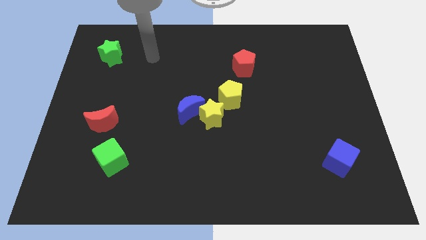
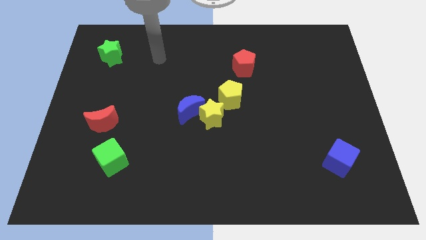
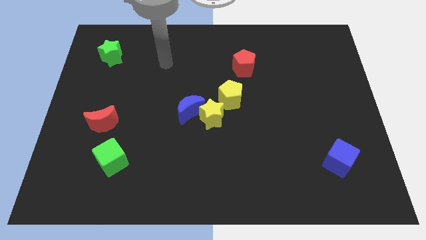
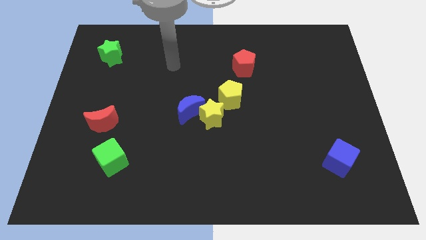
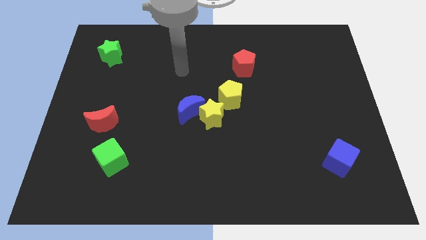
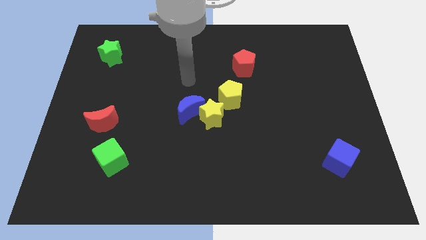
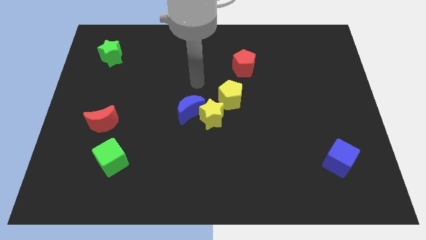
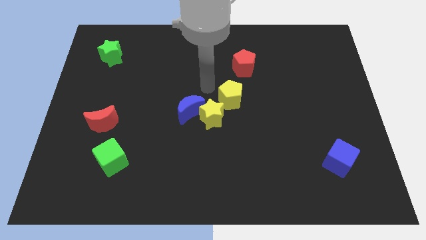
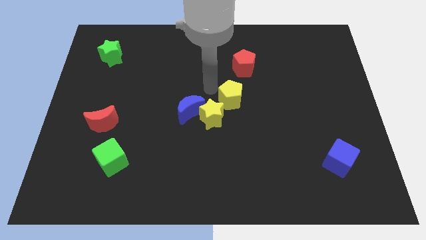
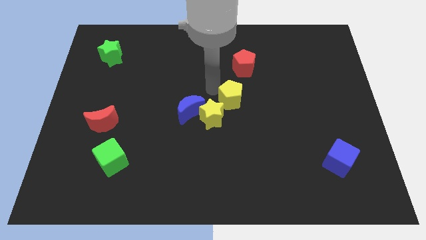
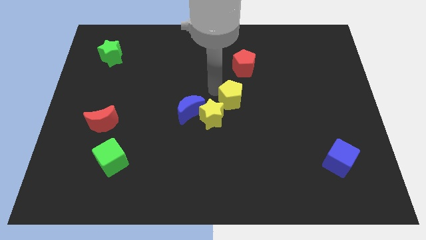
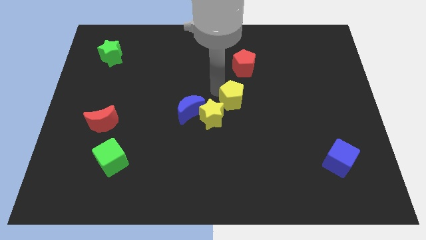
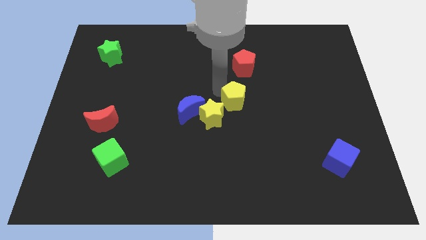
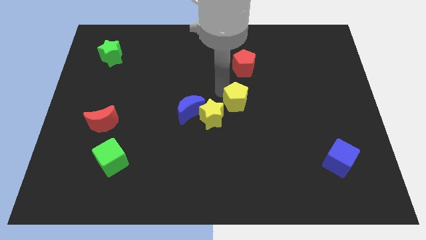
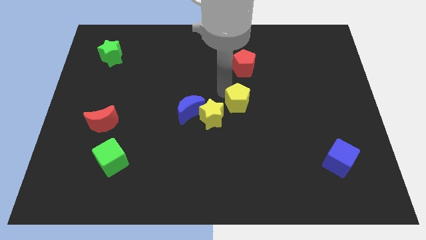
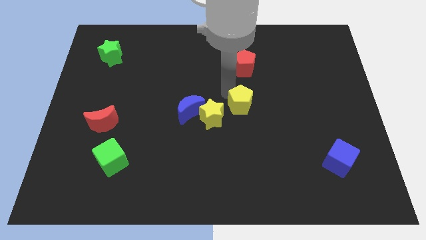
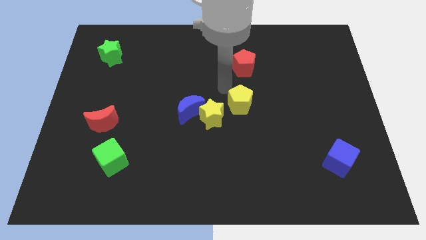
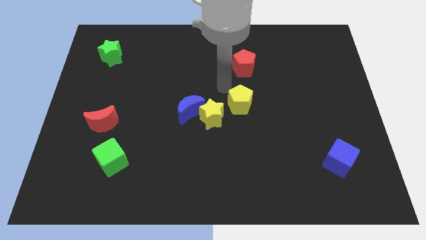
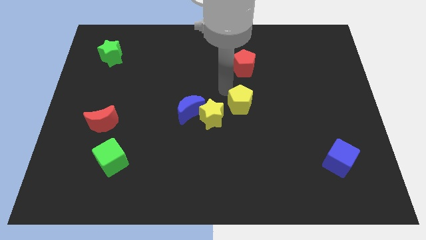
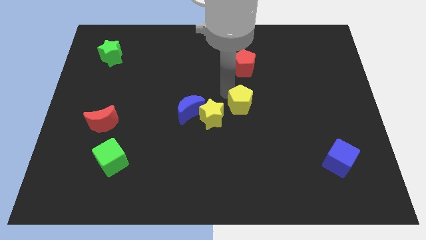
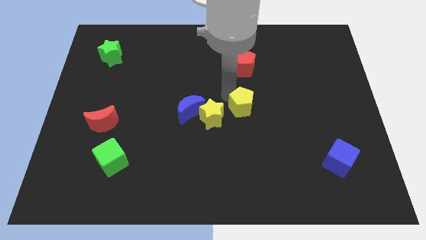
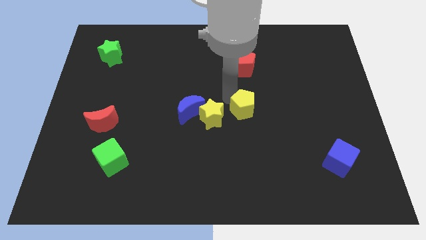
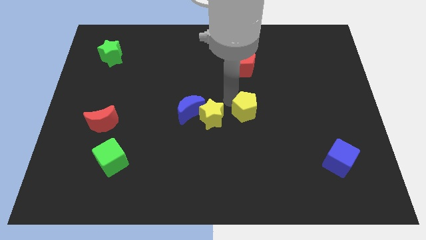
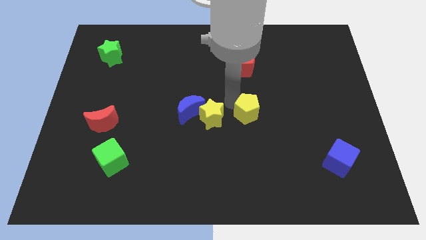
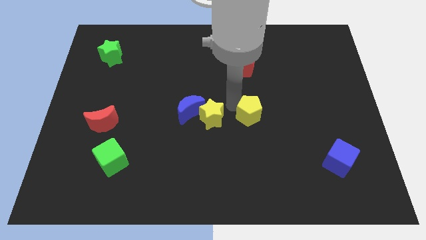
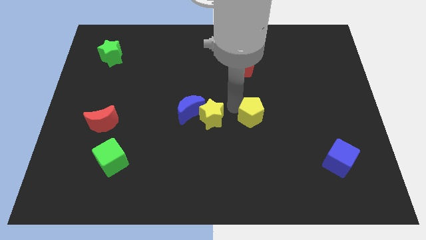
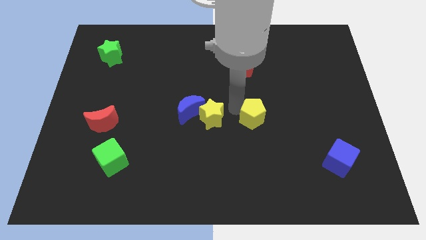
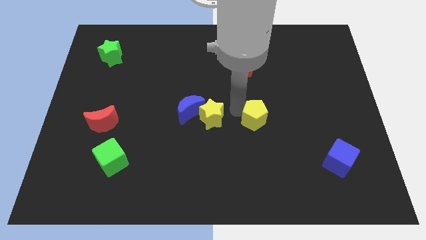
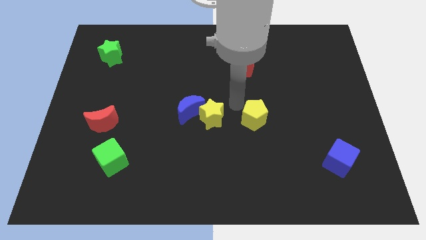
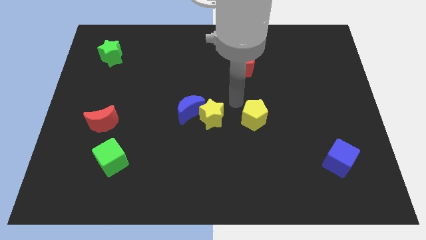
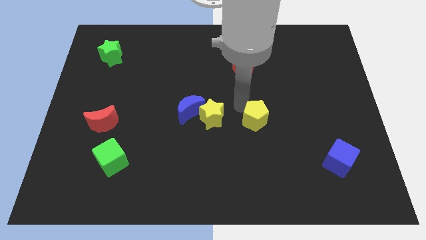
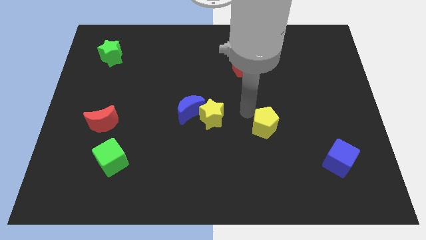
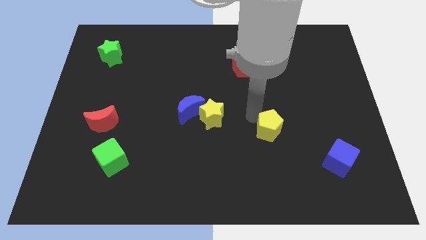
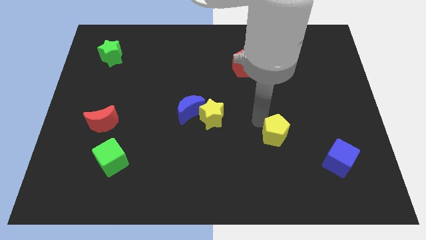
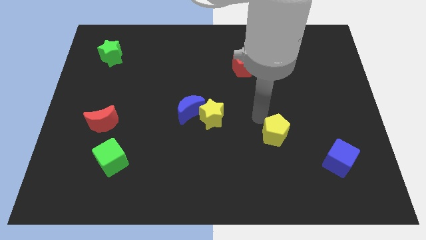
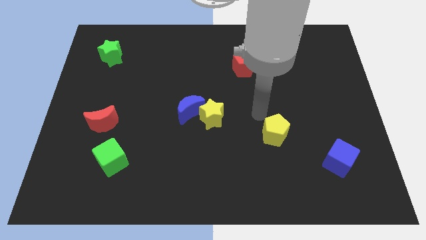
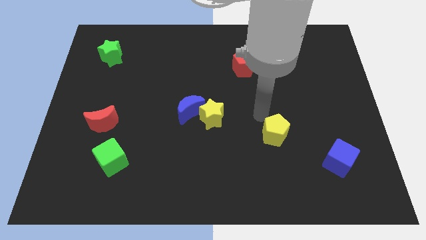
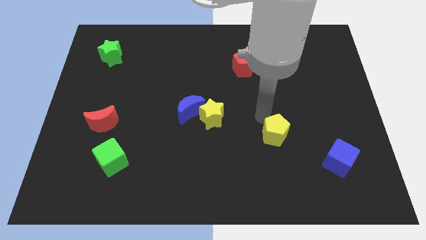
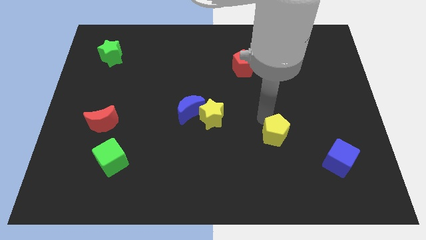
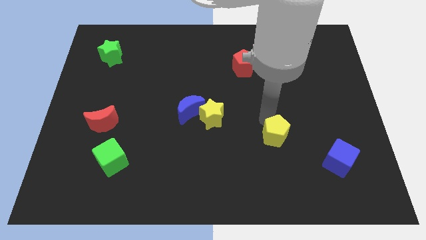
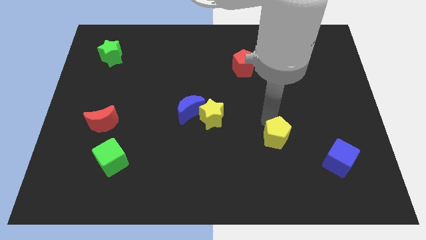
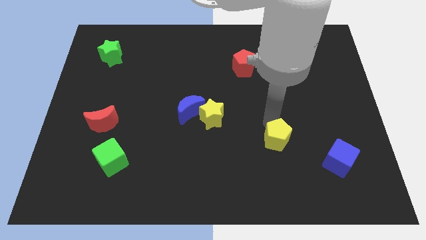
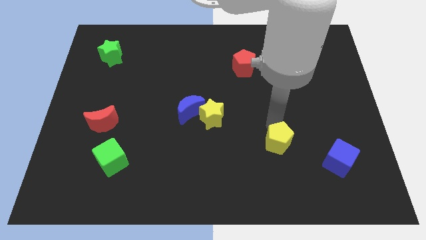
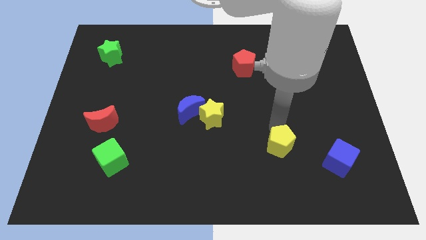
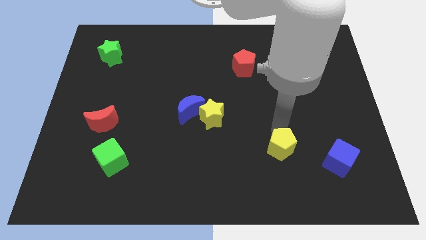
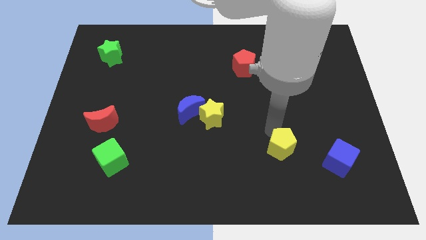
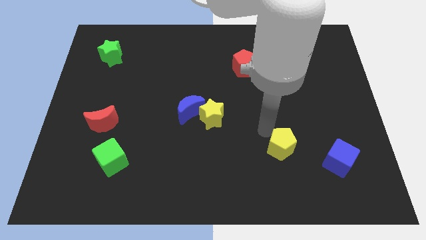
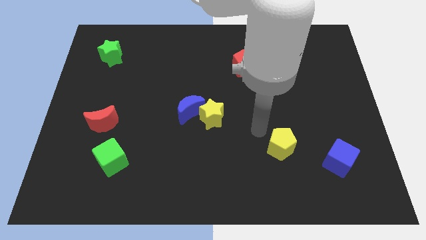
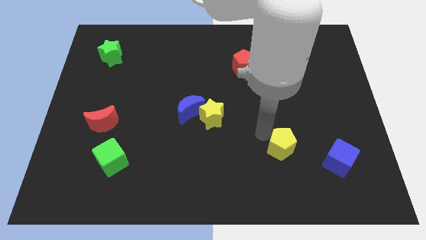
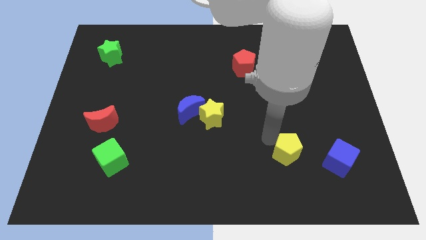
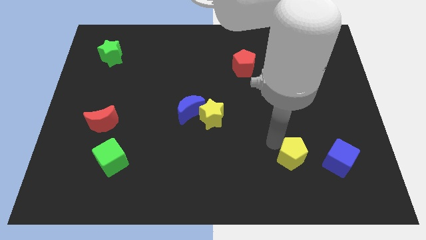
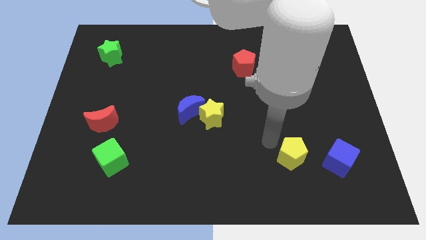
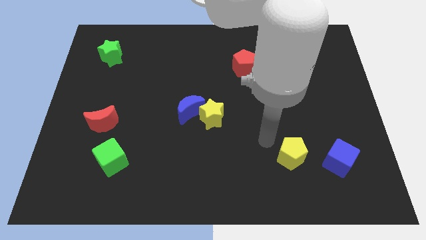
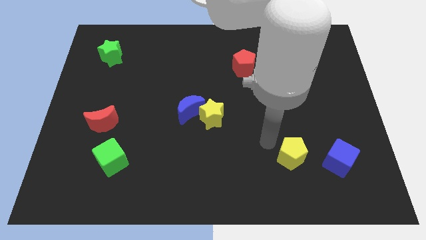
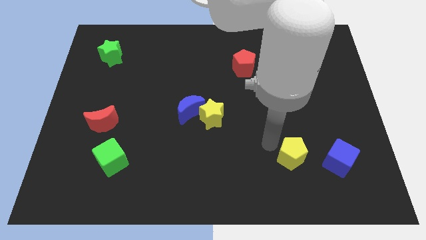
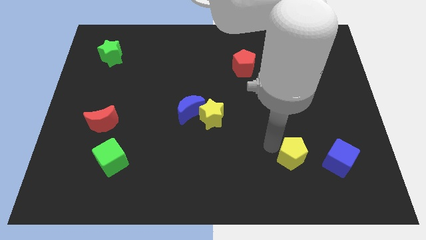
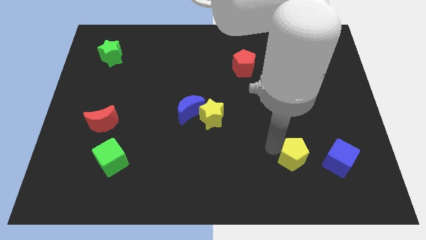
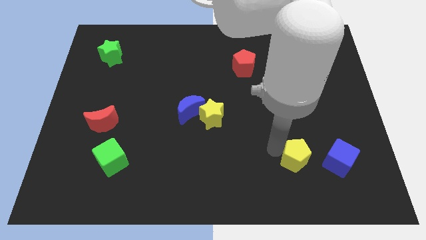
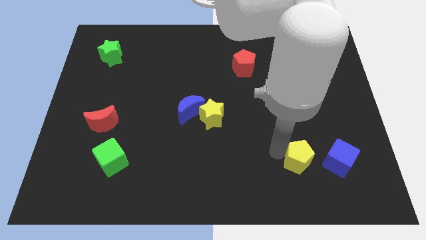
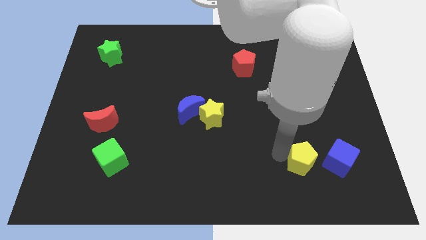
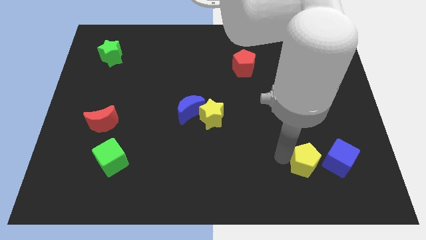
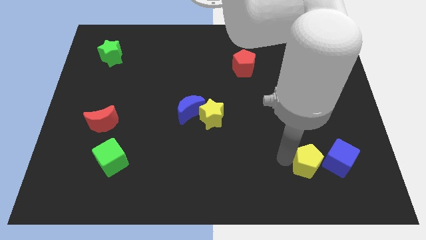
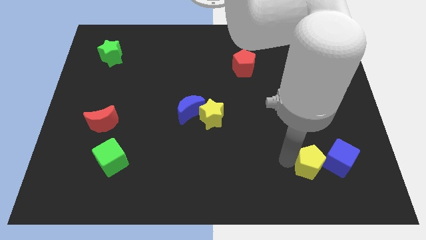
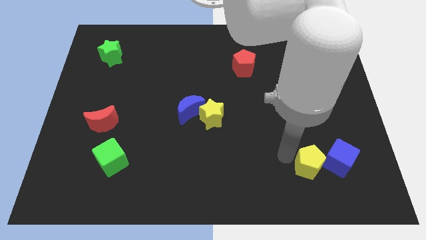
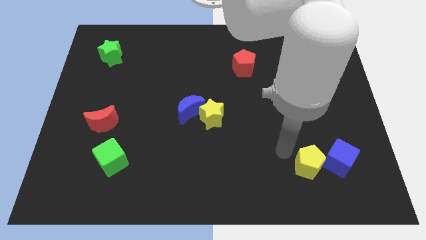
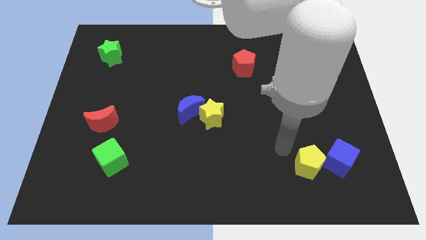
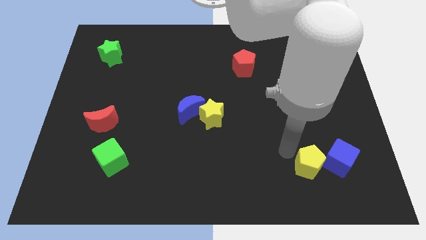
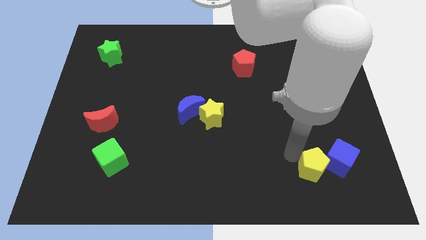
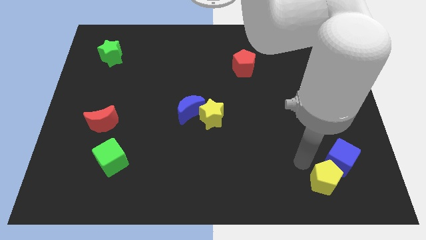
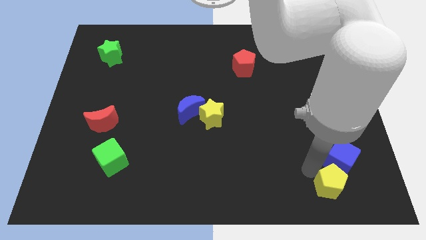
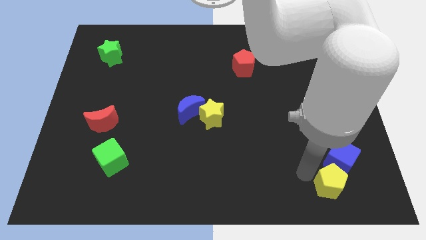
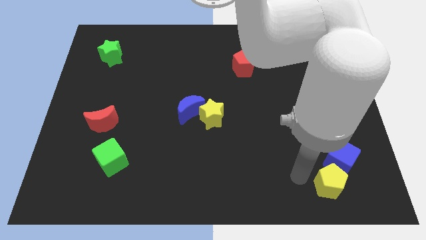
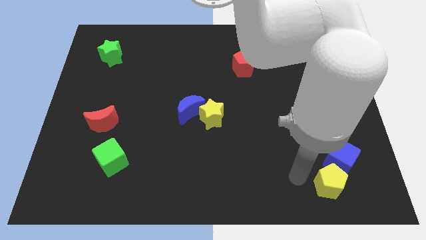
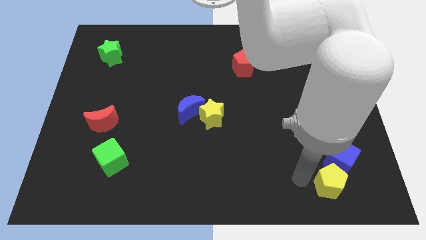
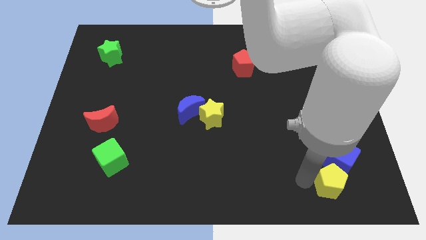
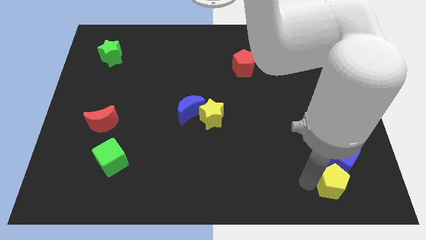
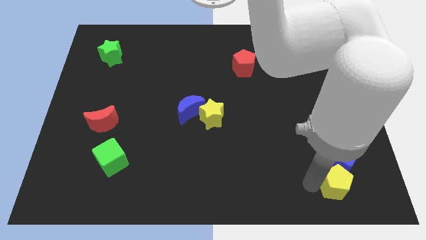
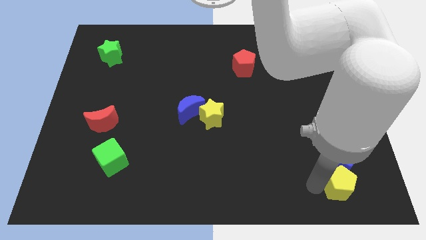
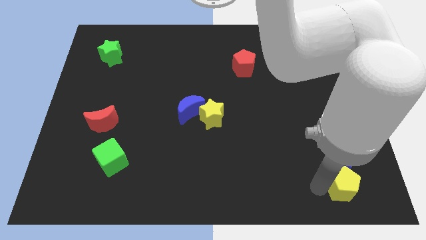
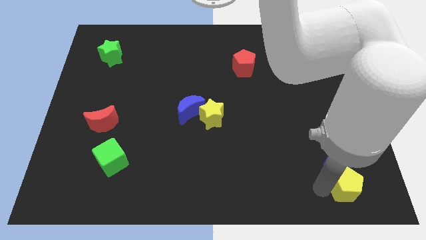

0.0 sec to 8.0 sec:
put the yellow pentagon to the bottom right of the board
